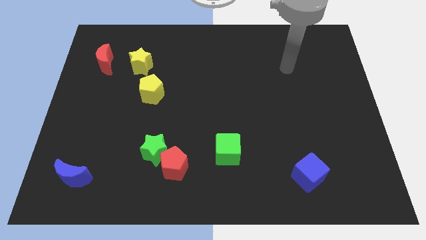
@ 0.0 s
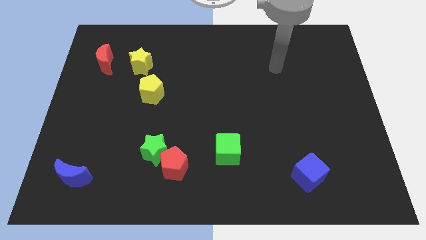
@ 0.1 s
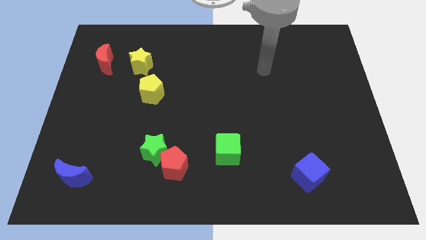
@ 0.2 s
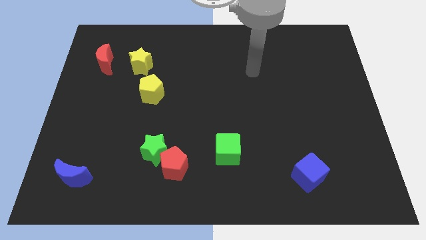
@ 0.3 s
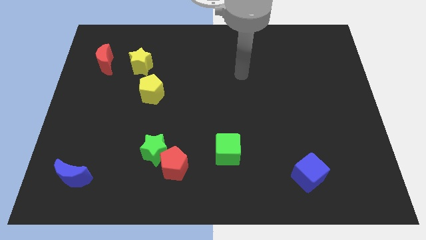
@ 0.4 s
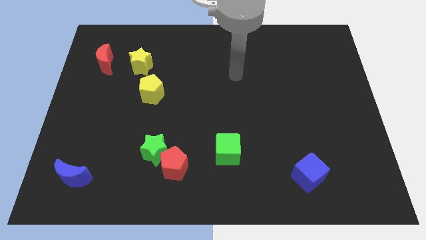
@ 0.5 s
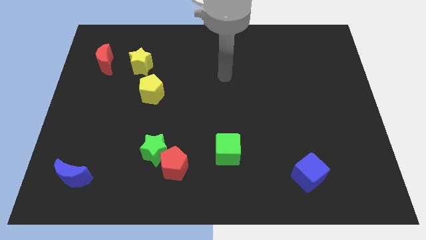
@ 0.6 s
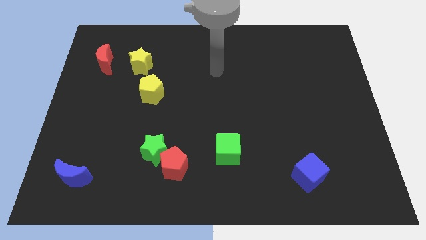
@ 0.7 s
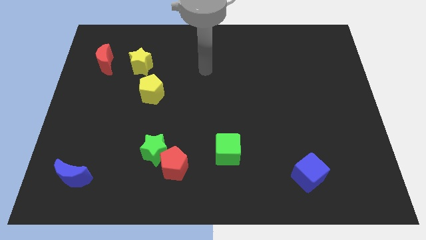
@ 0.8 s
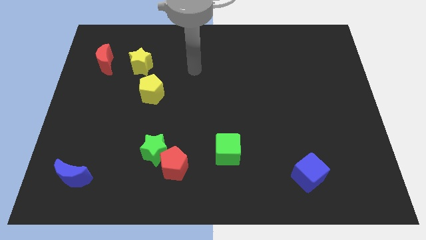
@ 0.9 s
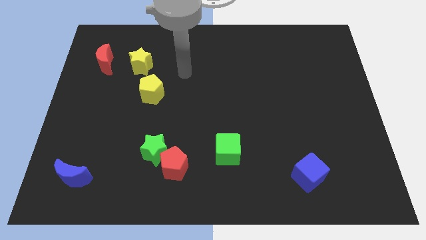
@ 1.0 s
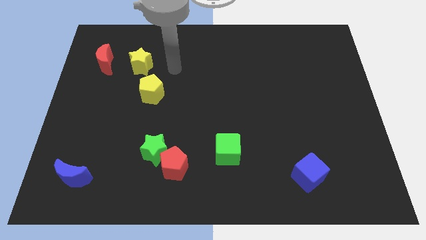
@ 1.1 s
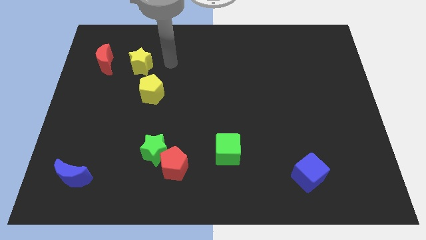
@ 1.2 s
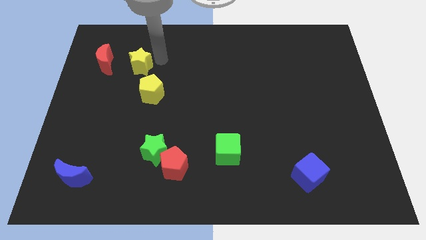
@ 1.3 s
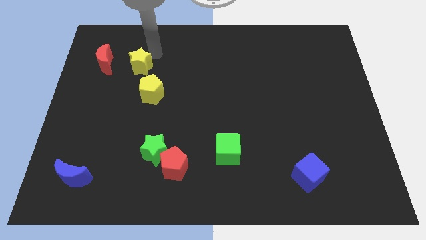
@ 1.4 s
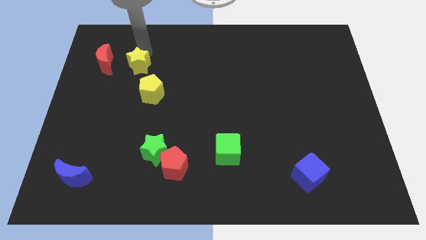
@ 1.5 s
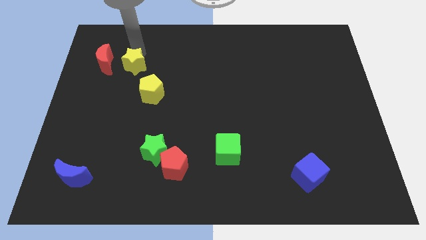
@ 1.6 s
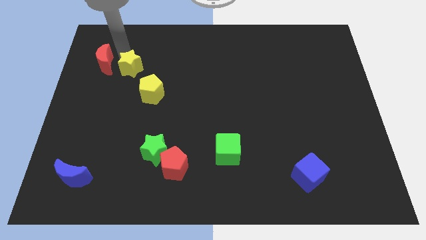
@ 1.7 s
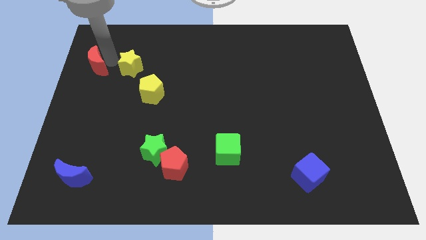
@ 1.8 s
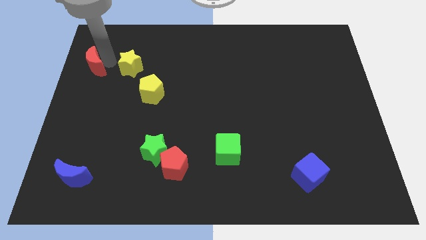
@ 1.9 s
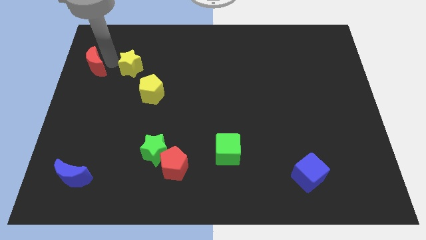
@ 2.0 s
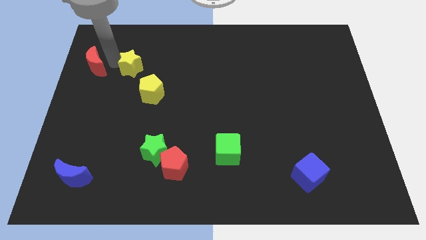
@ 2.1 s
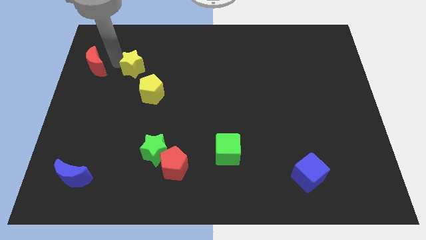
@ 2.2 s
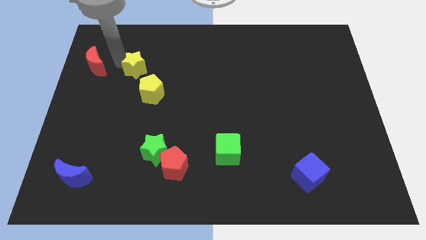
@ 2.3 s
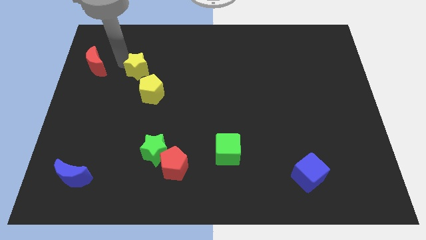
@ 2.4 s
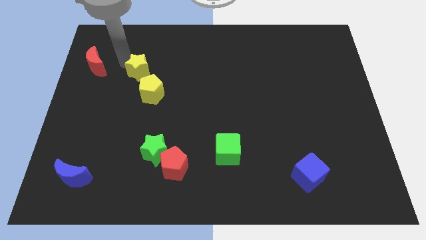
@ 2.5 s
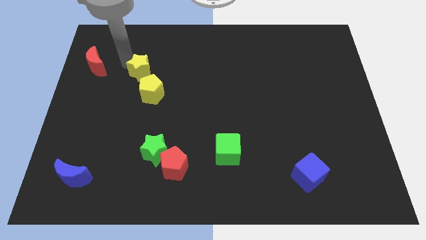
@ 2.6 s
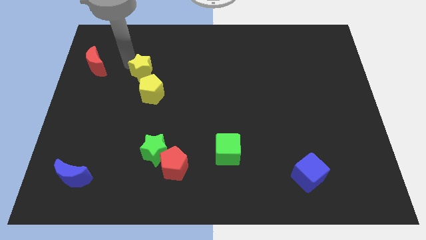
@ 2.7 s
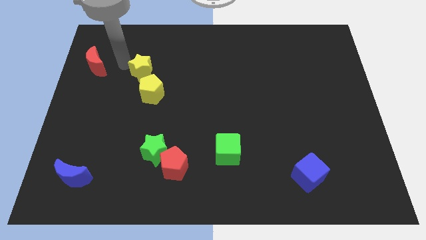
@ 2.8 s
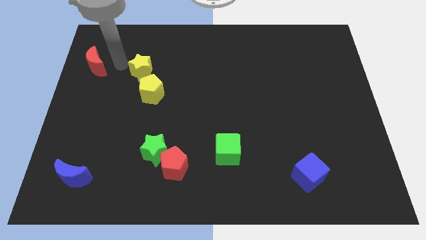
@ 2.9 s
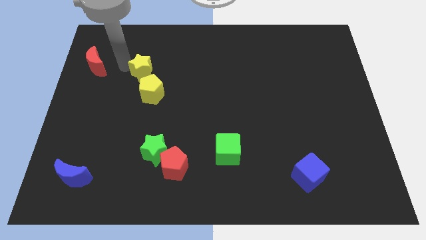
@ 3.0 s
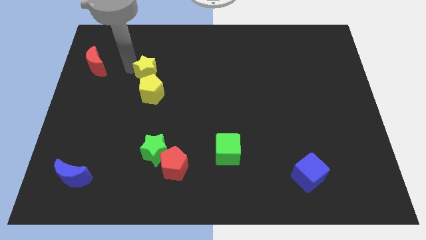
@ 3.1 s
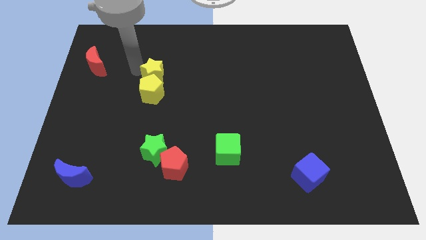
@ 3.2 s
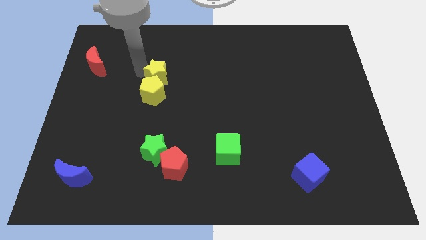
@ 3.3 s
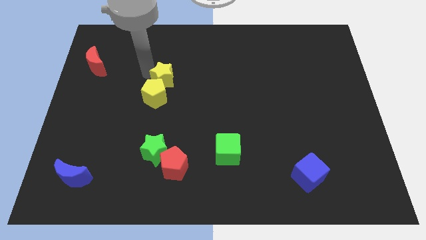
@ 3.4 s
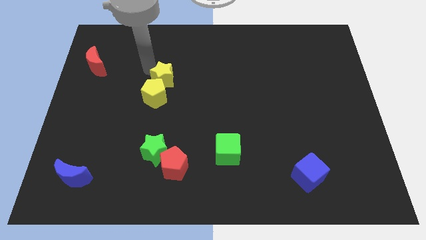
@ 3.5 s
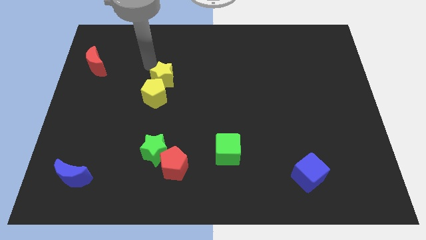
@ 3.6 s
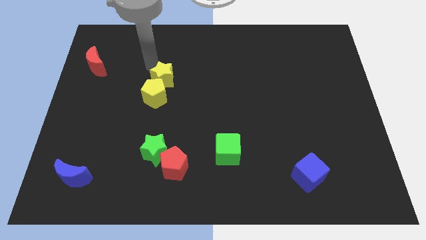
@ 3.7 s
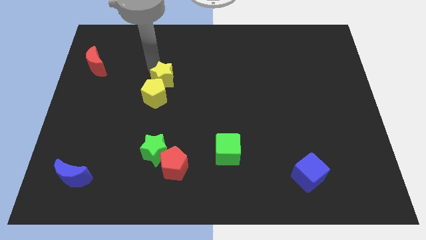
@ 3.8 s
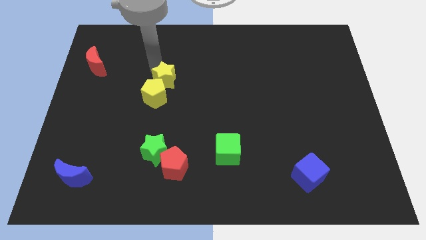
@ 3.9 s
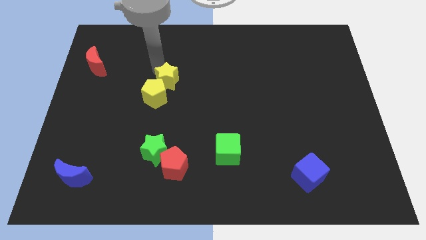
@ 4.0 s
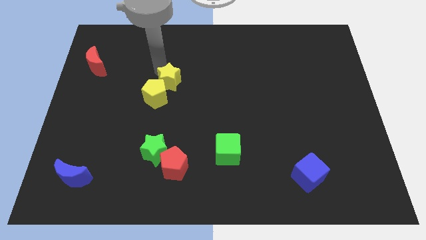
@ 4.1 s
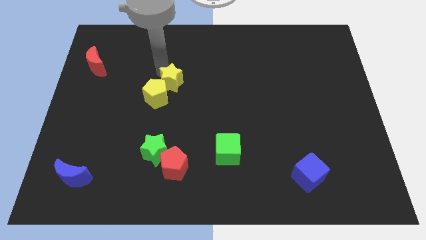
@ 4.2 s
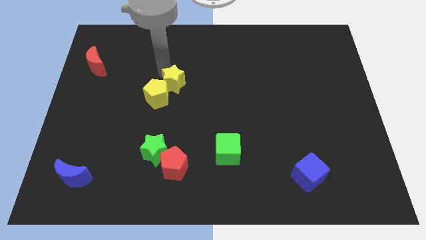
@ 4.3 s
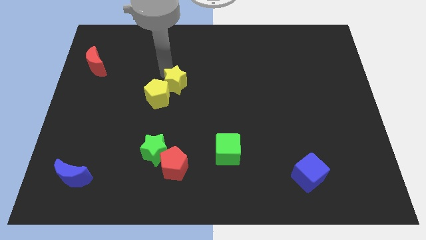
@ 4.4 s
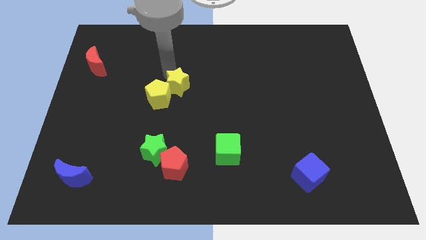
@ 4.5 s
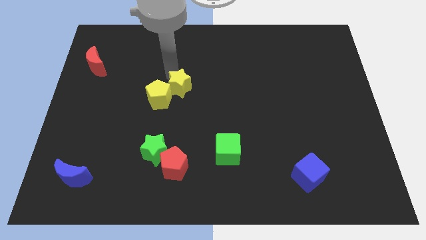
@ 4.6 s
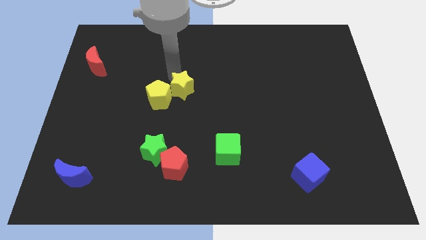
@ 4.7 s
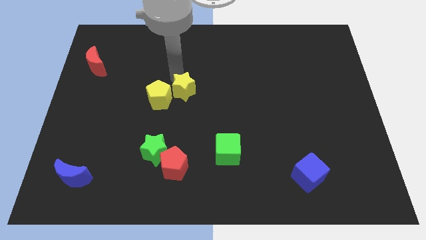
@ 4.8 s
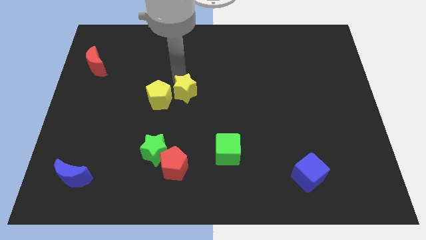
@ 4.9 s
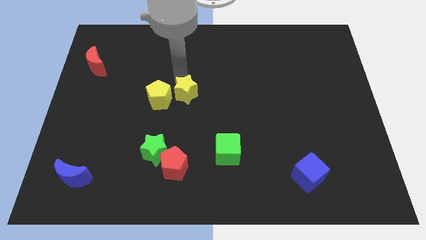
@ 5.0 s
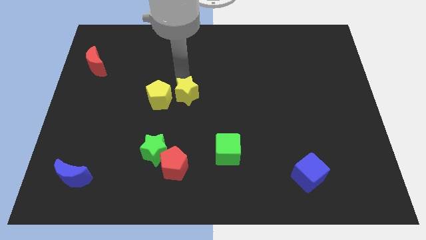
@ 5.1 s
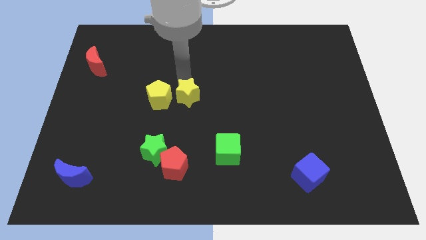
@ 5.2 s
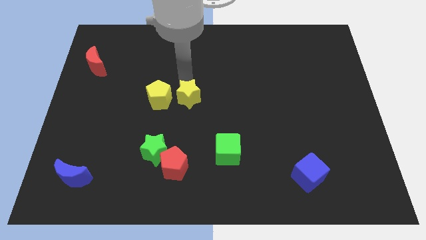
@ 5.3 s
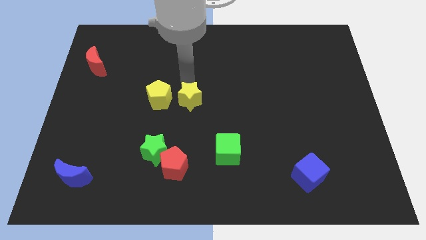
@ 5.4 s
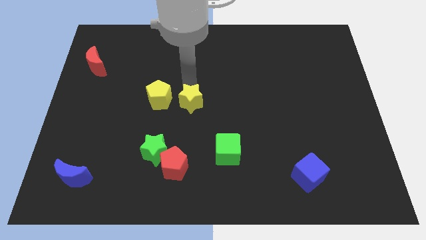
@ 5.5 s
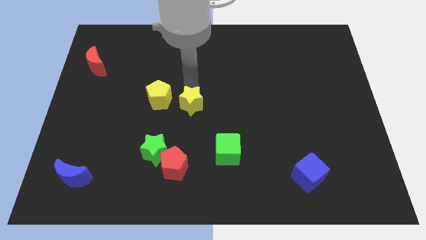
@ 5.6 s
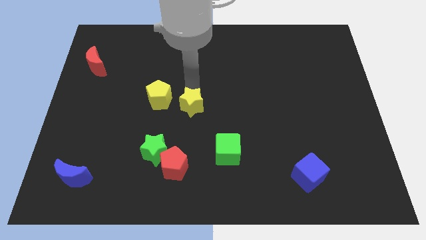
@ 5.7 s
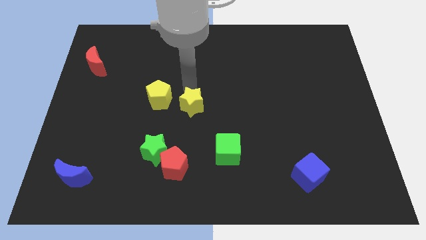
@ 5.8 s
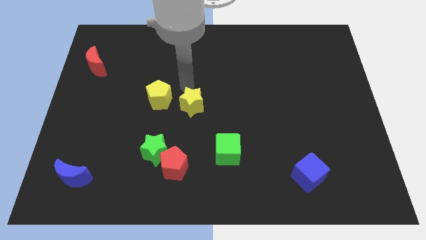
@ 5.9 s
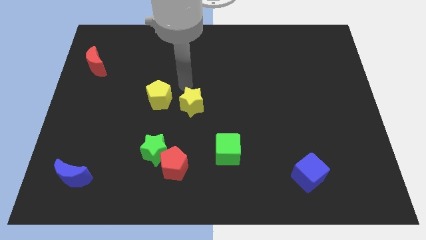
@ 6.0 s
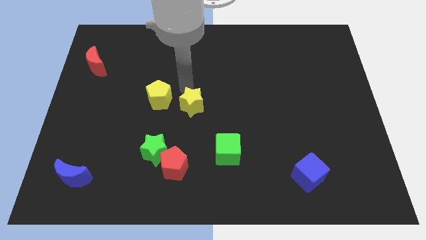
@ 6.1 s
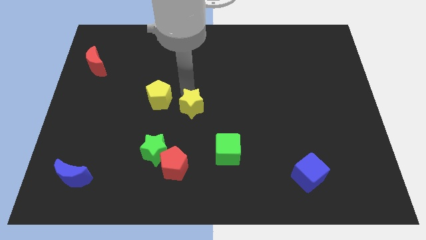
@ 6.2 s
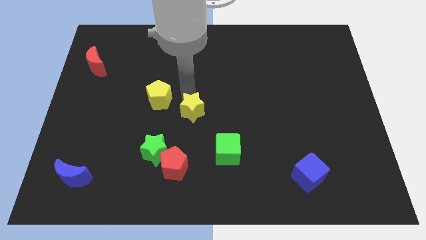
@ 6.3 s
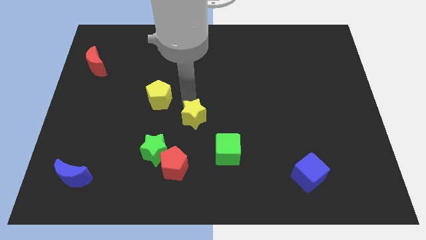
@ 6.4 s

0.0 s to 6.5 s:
slide the yellow star diagonally up and to the left of the green cube
